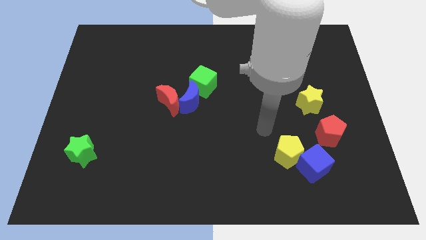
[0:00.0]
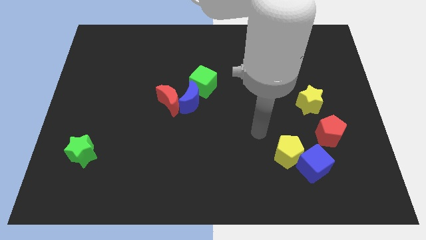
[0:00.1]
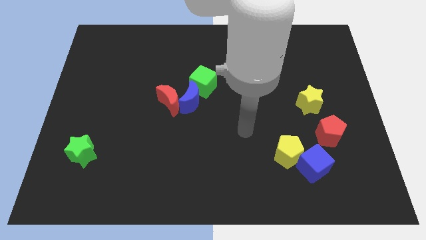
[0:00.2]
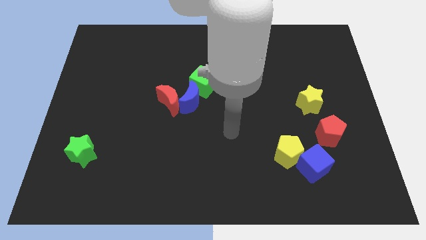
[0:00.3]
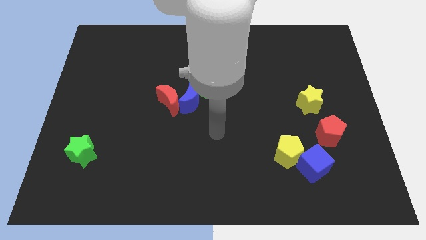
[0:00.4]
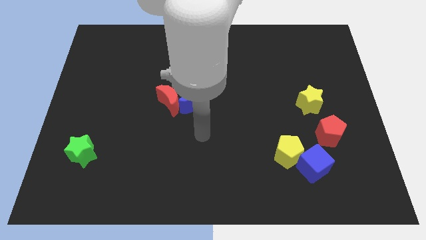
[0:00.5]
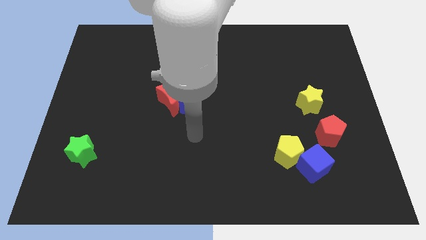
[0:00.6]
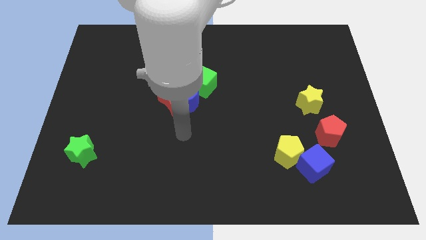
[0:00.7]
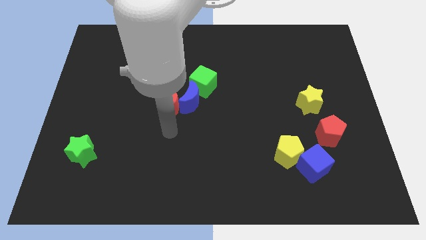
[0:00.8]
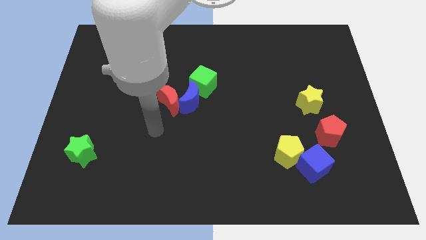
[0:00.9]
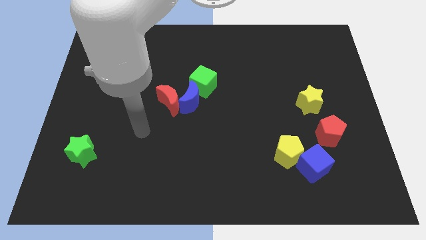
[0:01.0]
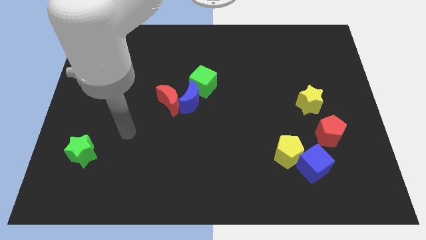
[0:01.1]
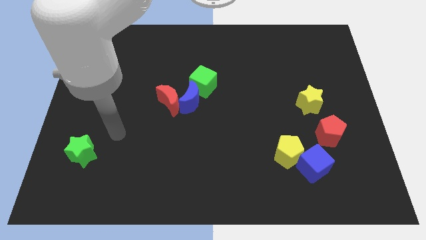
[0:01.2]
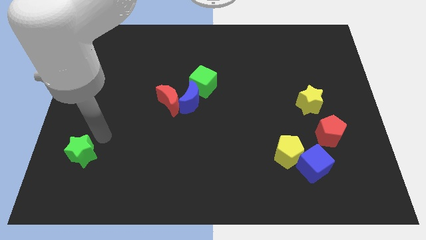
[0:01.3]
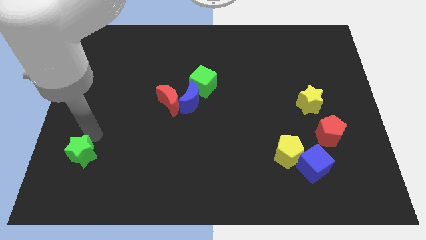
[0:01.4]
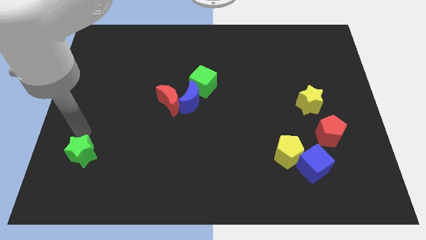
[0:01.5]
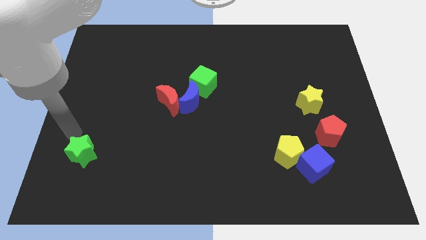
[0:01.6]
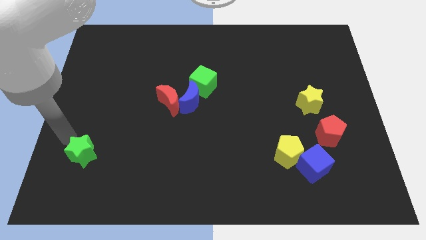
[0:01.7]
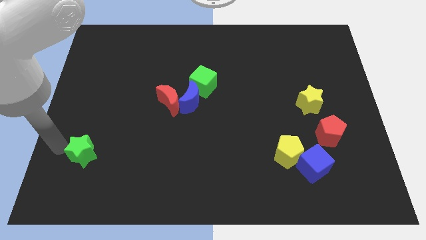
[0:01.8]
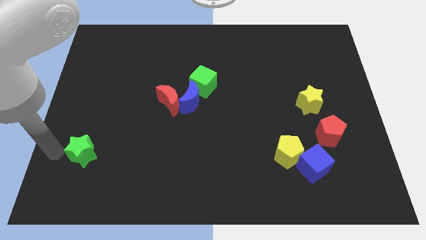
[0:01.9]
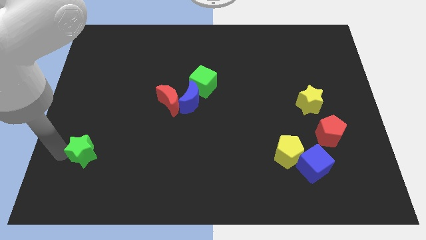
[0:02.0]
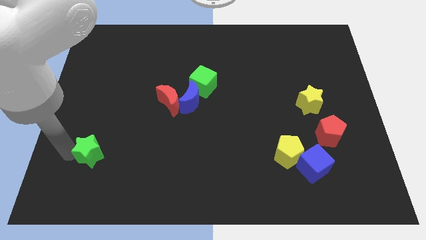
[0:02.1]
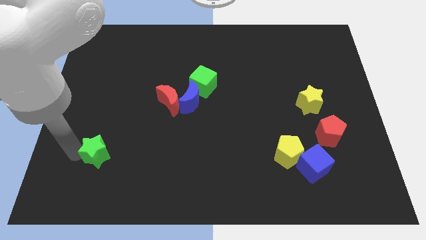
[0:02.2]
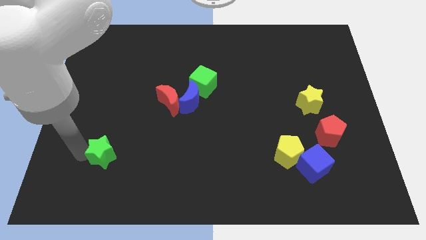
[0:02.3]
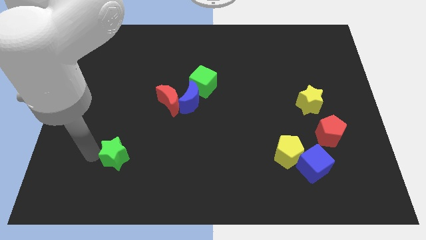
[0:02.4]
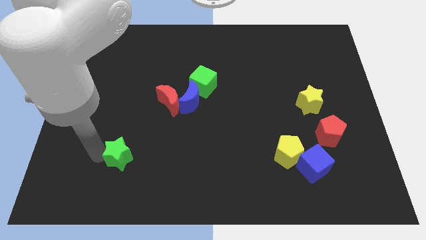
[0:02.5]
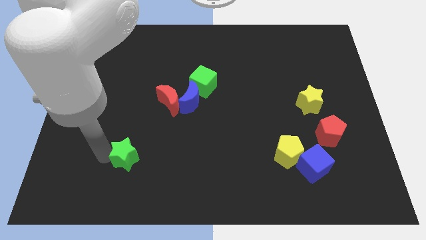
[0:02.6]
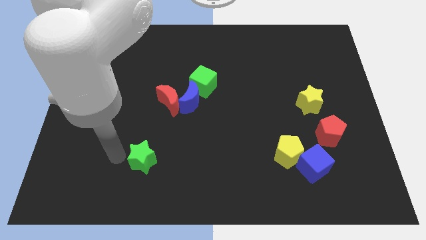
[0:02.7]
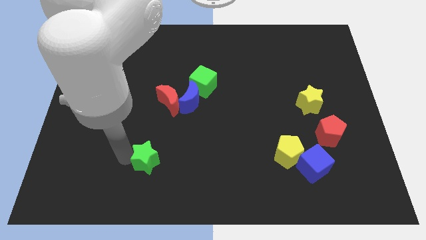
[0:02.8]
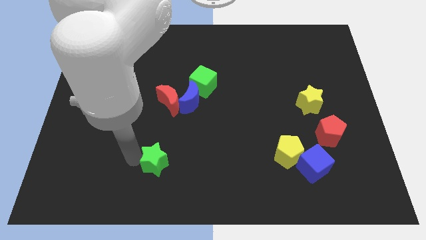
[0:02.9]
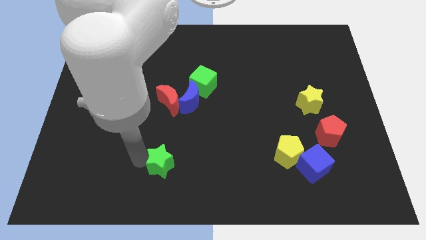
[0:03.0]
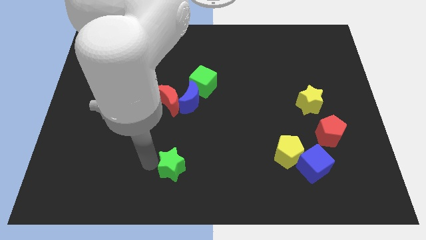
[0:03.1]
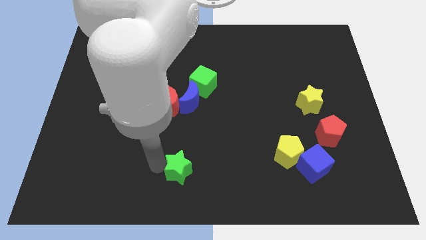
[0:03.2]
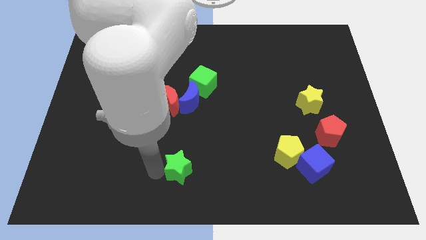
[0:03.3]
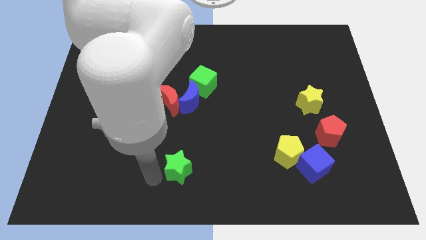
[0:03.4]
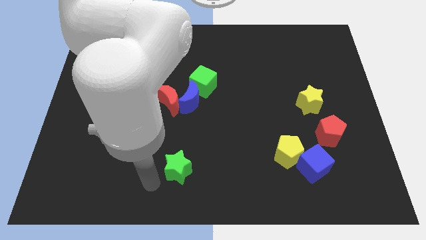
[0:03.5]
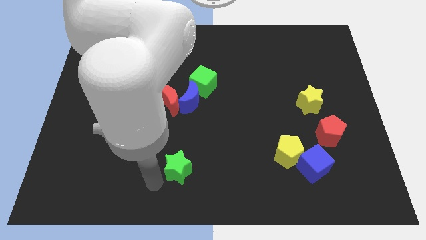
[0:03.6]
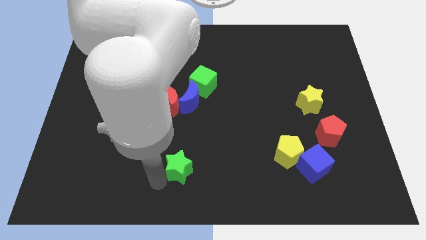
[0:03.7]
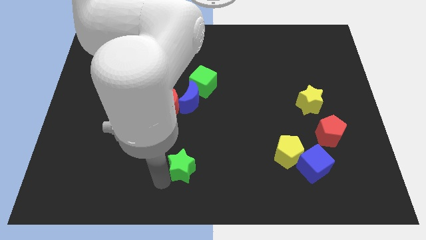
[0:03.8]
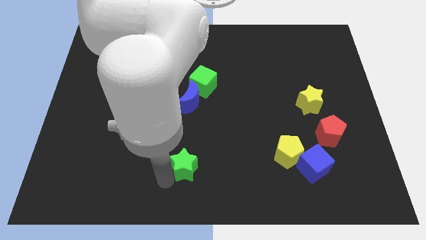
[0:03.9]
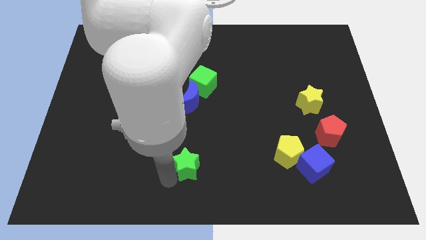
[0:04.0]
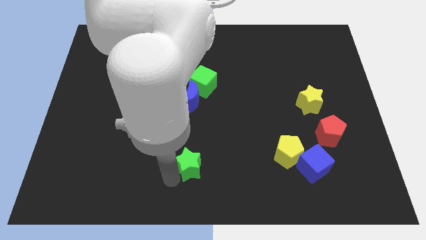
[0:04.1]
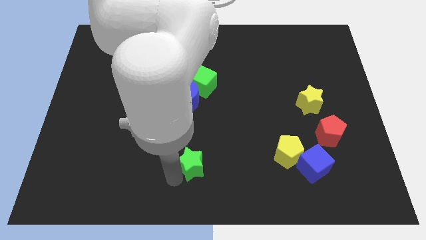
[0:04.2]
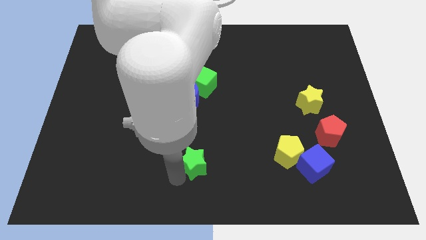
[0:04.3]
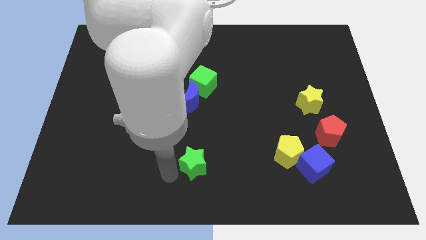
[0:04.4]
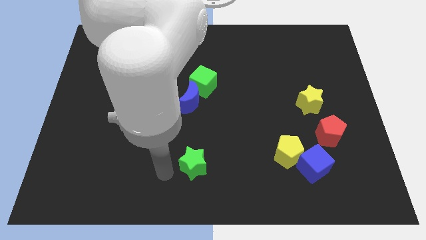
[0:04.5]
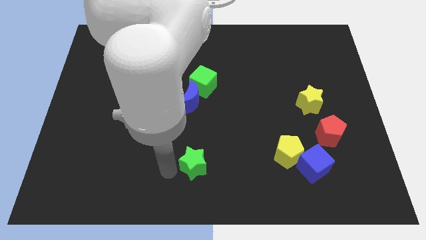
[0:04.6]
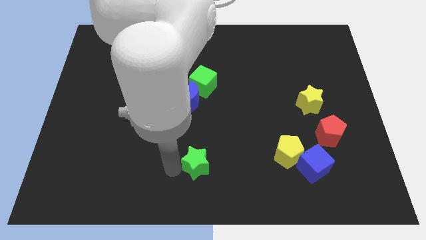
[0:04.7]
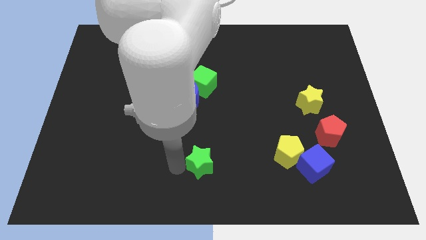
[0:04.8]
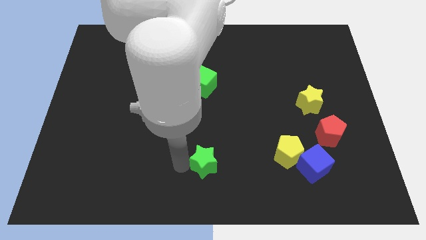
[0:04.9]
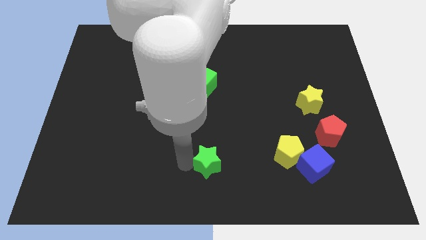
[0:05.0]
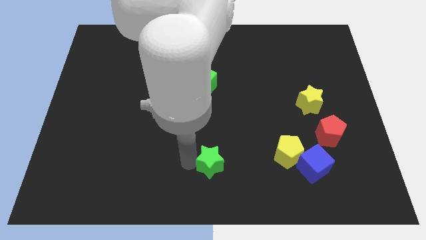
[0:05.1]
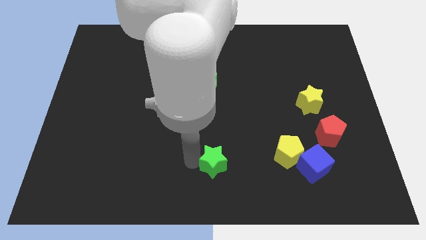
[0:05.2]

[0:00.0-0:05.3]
push the green star to the left side of the yellow pentagon

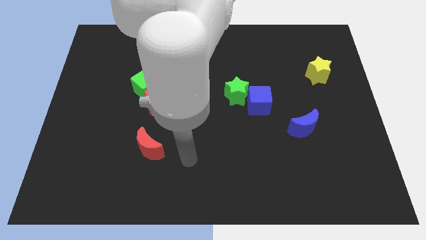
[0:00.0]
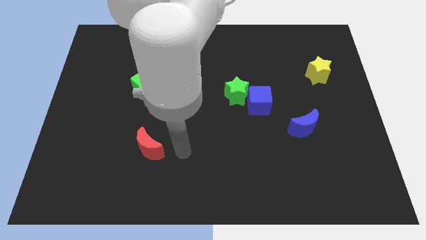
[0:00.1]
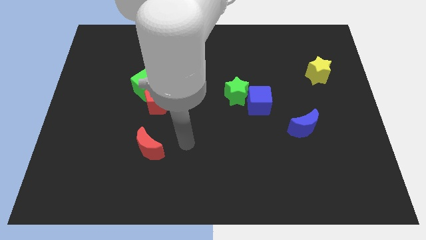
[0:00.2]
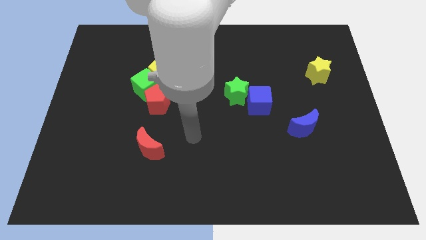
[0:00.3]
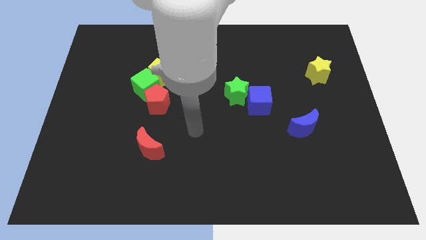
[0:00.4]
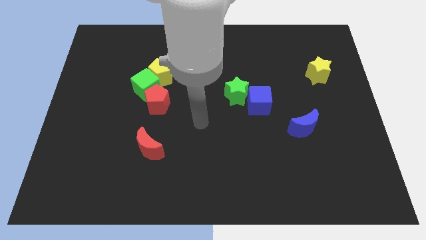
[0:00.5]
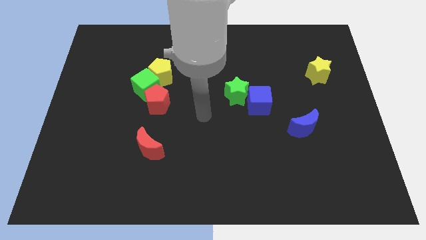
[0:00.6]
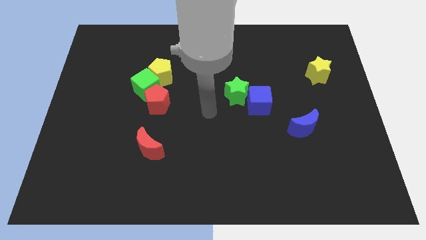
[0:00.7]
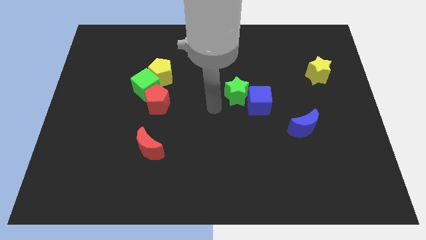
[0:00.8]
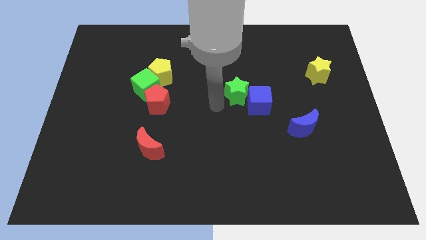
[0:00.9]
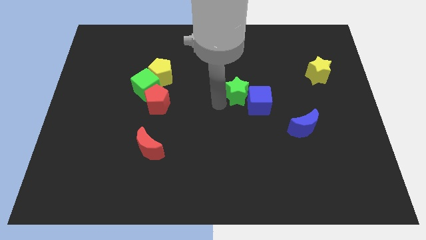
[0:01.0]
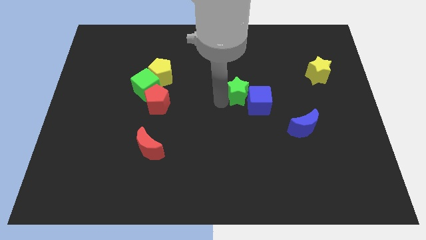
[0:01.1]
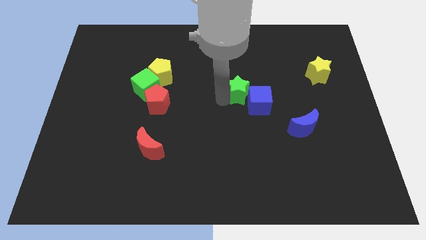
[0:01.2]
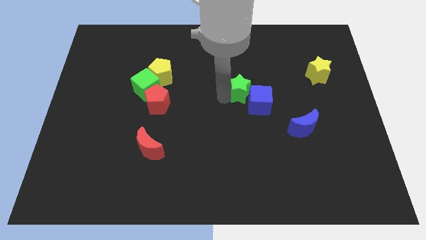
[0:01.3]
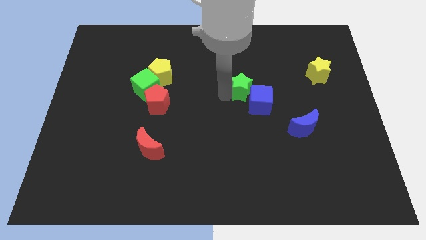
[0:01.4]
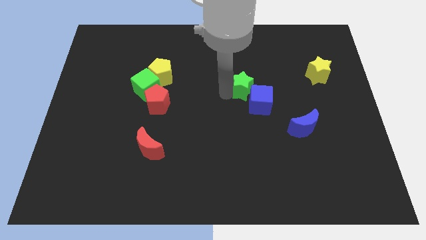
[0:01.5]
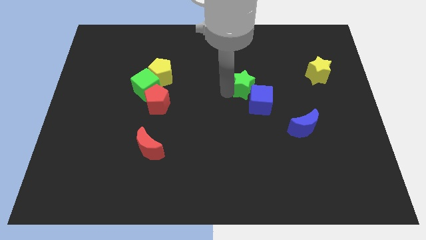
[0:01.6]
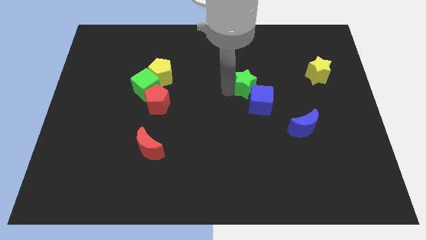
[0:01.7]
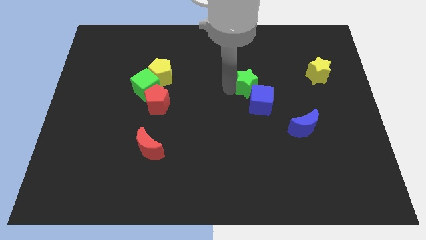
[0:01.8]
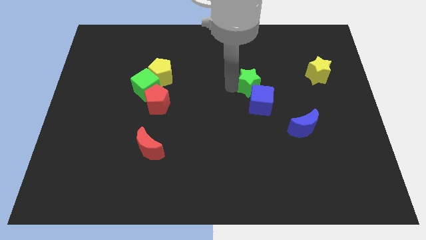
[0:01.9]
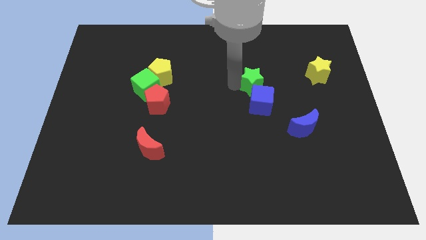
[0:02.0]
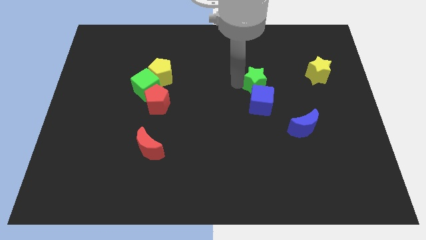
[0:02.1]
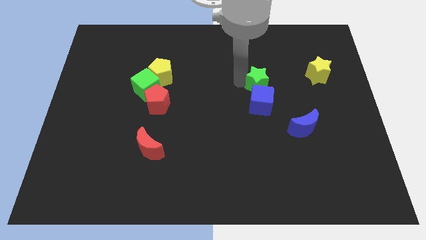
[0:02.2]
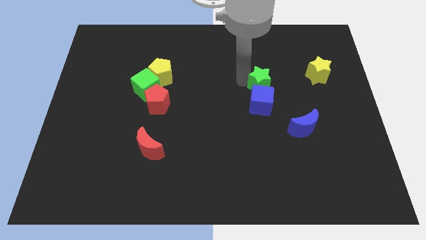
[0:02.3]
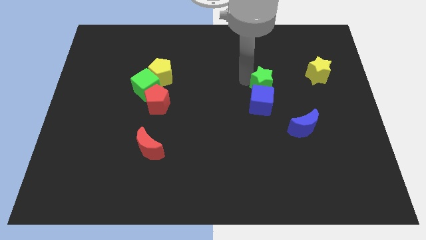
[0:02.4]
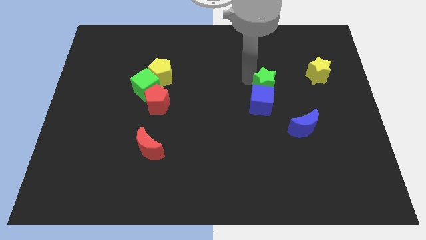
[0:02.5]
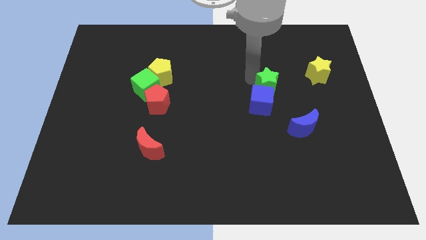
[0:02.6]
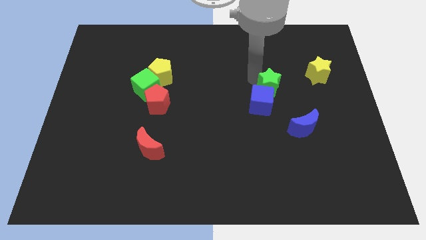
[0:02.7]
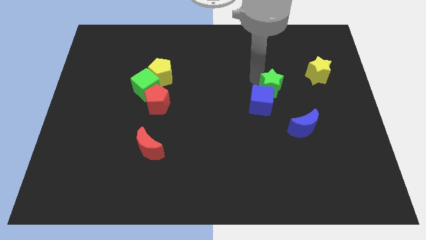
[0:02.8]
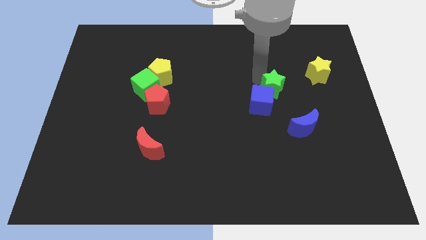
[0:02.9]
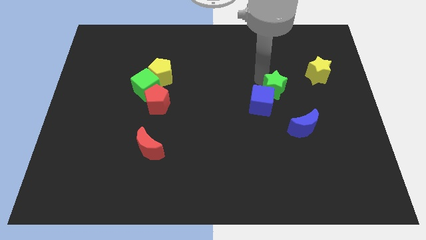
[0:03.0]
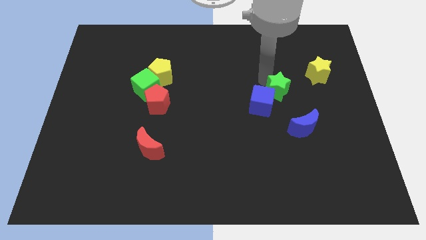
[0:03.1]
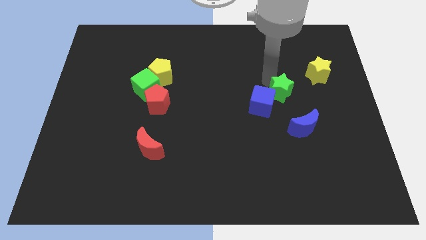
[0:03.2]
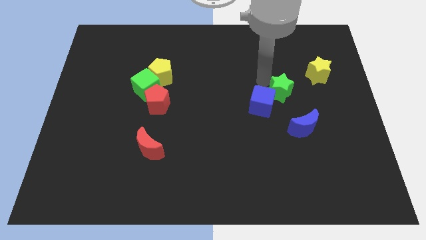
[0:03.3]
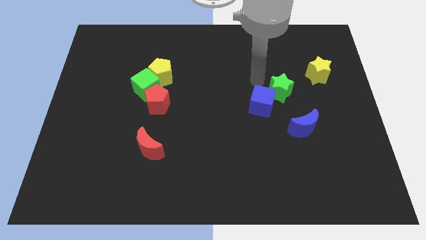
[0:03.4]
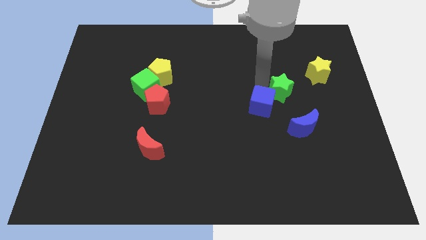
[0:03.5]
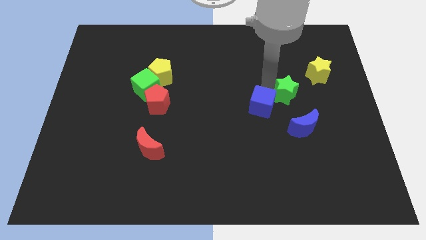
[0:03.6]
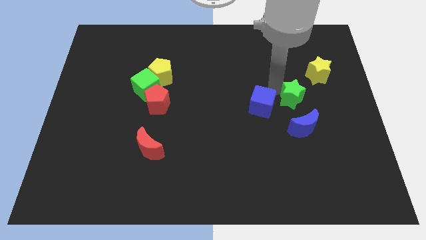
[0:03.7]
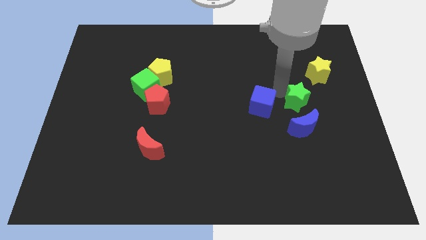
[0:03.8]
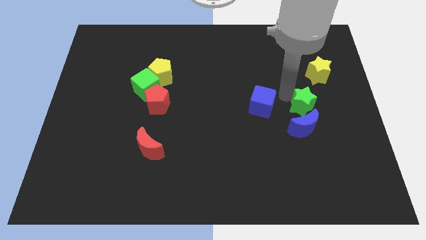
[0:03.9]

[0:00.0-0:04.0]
move the green star to the top right side of the blue moon
